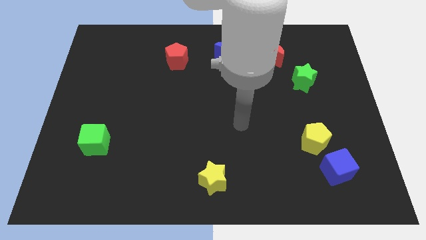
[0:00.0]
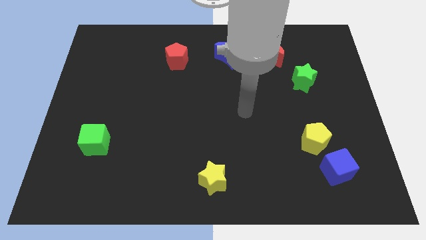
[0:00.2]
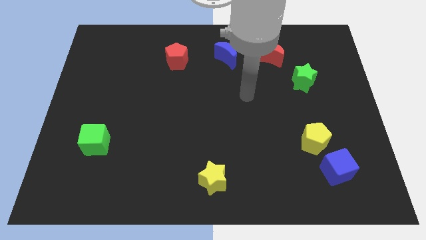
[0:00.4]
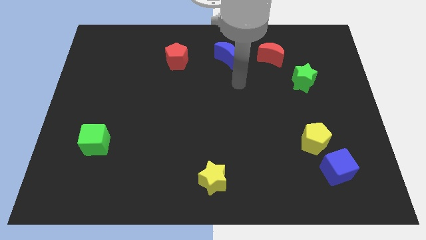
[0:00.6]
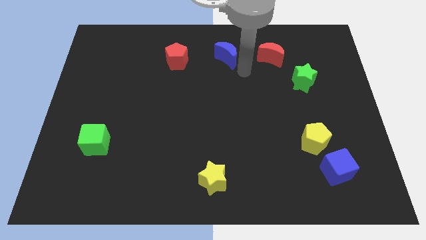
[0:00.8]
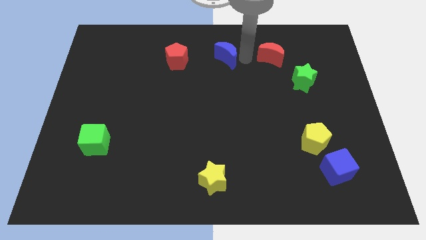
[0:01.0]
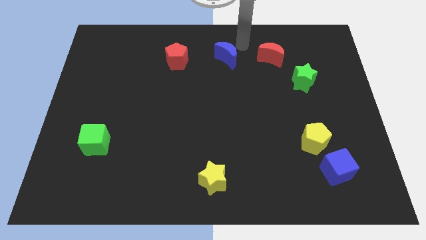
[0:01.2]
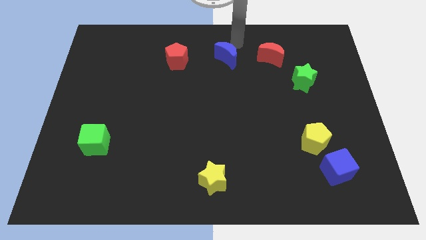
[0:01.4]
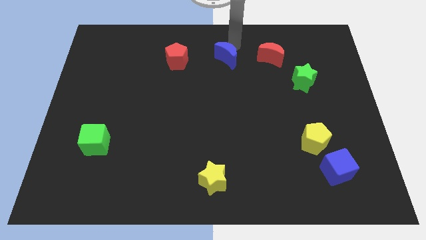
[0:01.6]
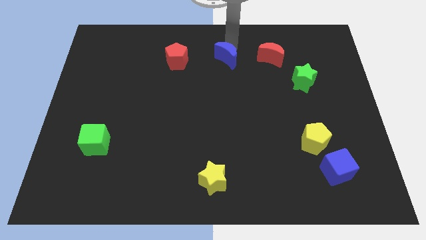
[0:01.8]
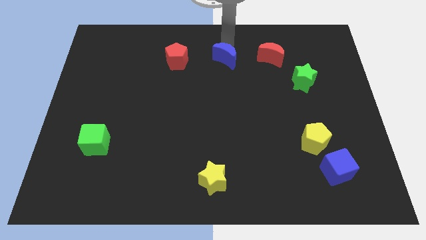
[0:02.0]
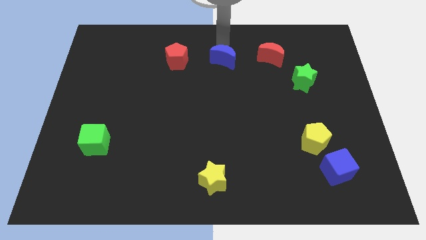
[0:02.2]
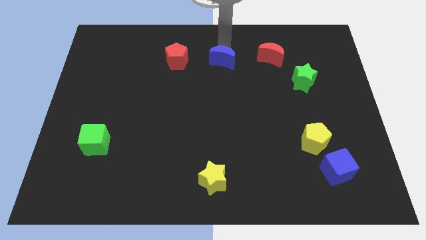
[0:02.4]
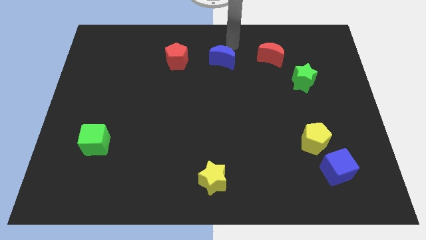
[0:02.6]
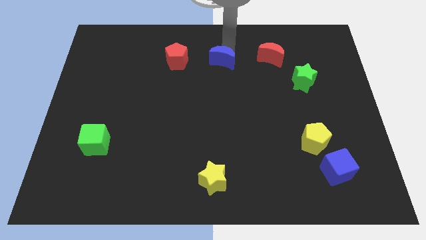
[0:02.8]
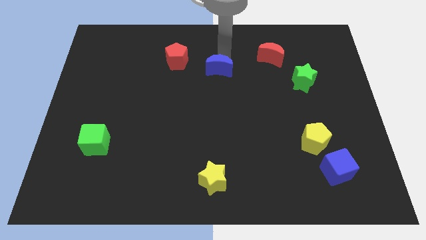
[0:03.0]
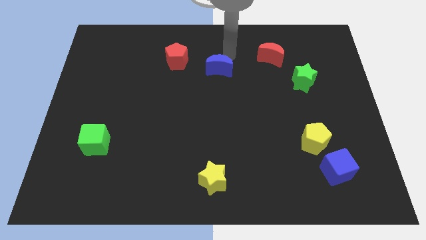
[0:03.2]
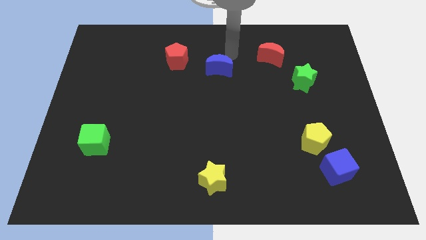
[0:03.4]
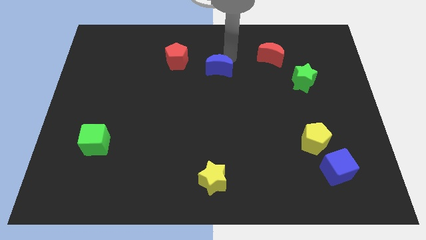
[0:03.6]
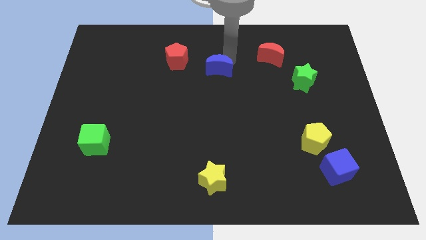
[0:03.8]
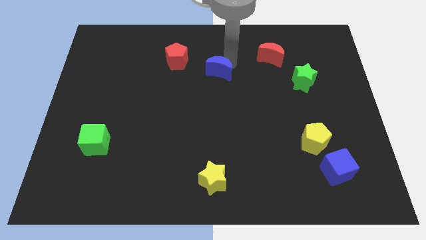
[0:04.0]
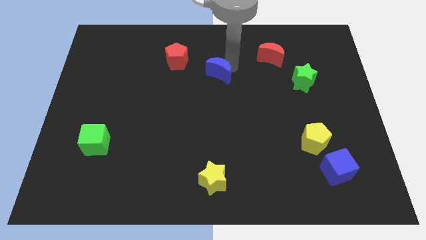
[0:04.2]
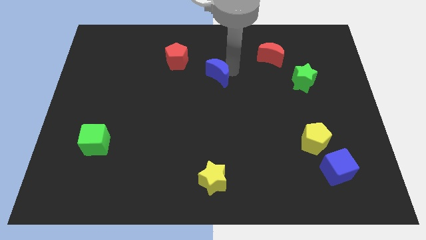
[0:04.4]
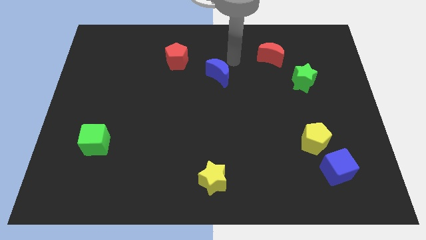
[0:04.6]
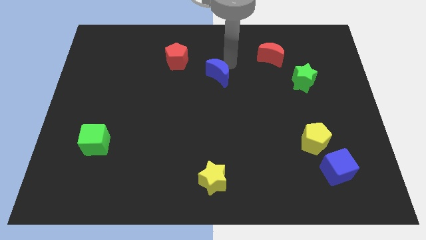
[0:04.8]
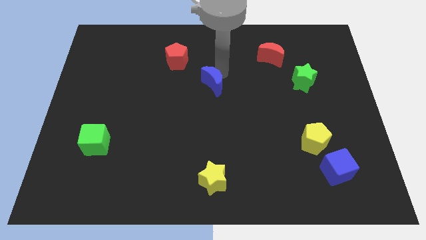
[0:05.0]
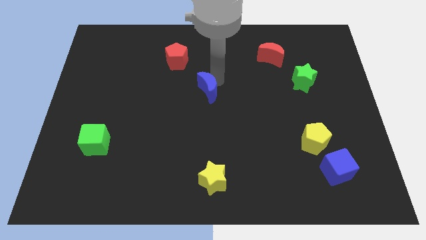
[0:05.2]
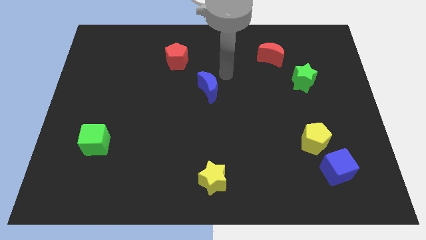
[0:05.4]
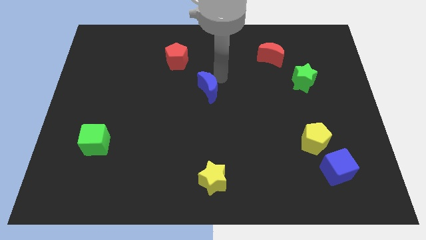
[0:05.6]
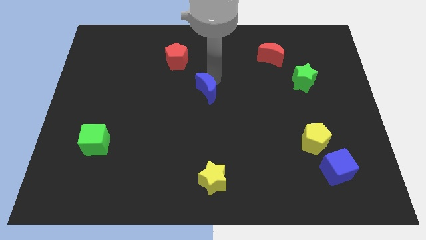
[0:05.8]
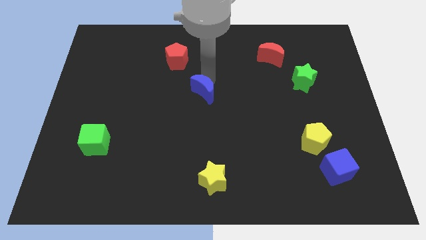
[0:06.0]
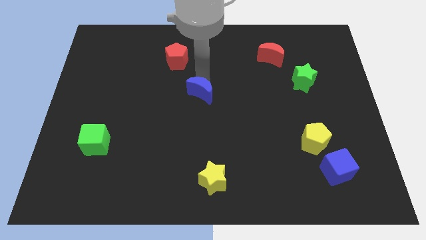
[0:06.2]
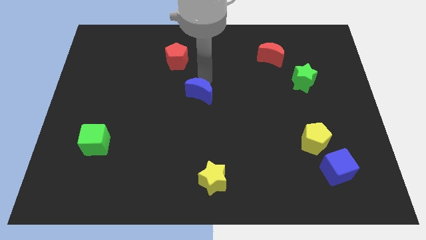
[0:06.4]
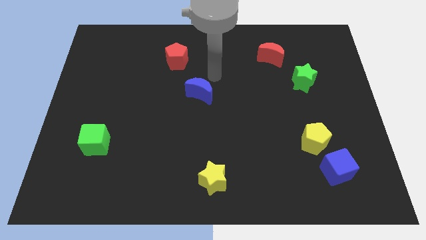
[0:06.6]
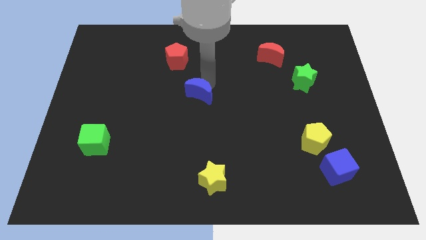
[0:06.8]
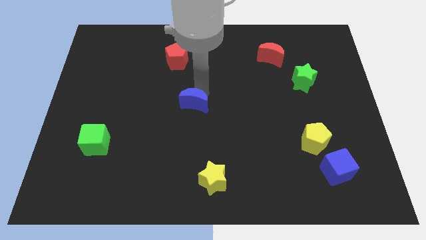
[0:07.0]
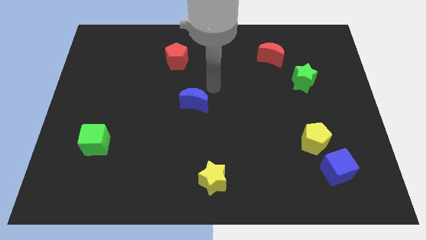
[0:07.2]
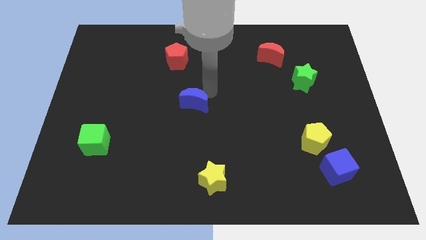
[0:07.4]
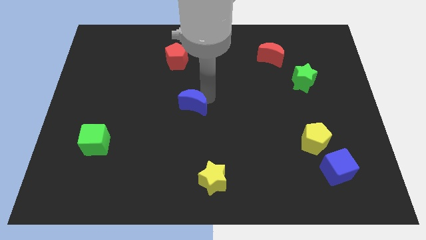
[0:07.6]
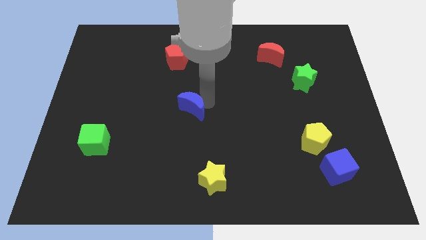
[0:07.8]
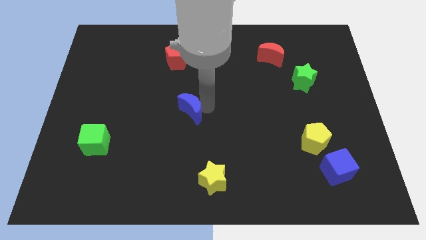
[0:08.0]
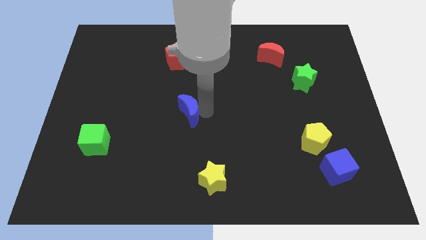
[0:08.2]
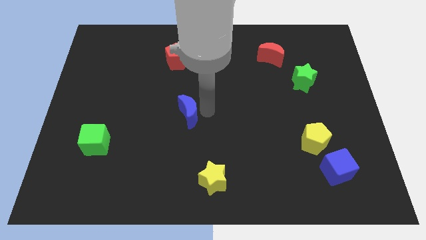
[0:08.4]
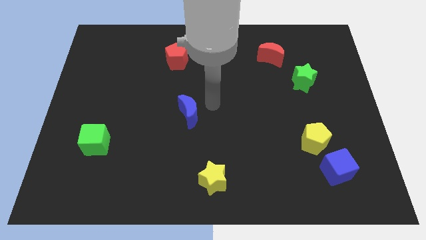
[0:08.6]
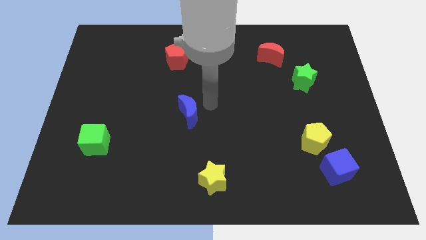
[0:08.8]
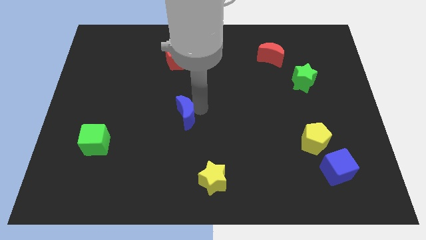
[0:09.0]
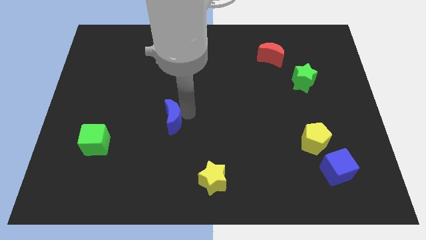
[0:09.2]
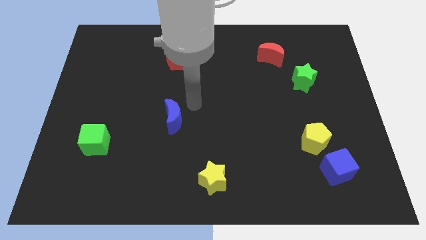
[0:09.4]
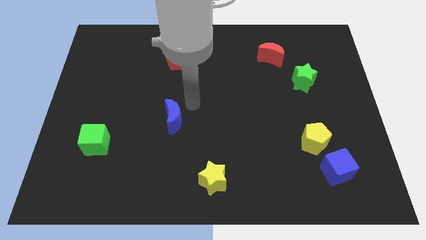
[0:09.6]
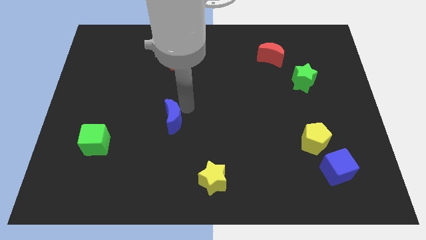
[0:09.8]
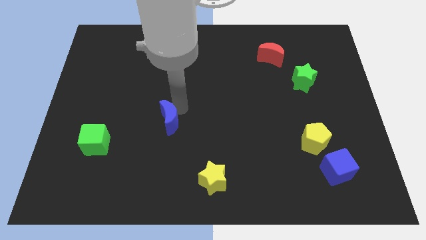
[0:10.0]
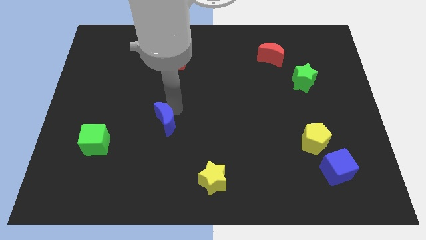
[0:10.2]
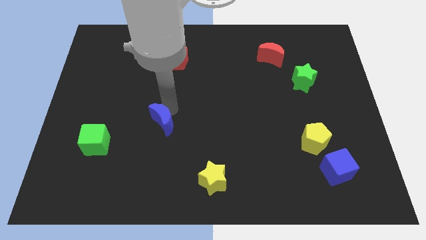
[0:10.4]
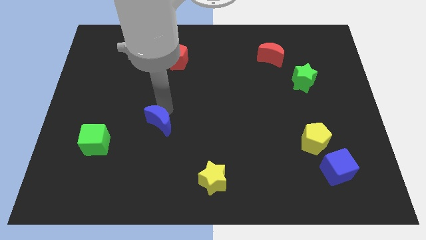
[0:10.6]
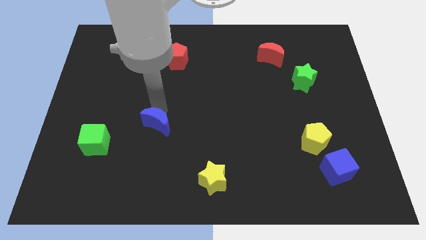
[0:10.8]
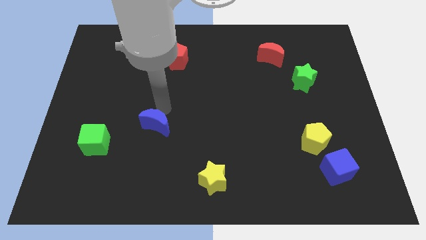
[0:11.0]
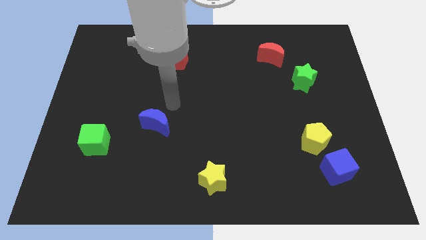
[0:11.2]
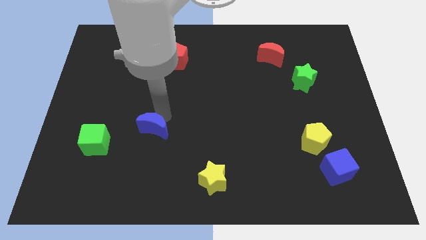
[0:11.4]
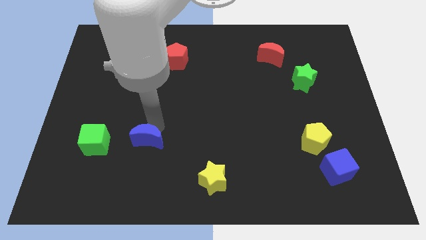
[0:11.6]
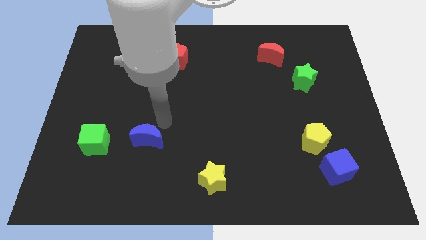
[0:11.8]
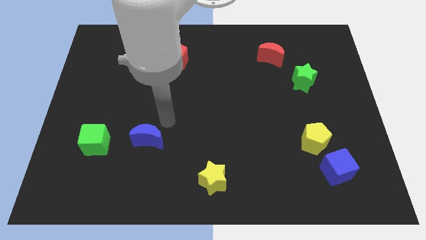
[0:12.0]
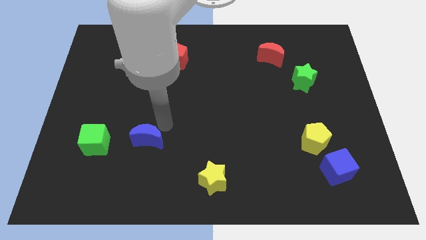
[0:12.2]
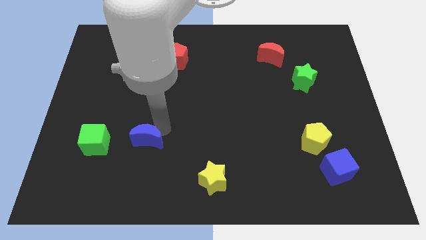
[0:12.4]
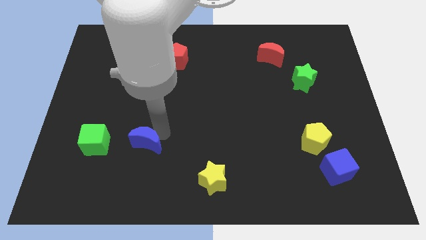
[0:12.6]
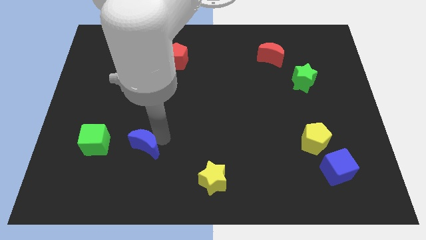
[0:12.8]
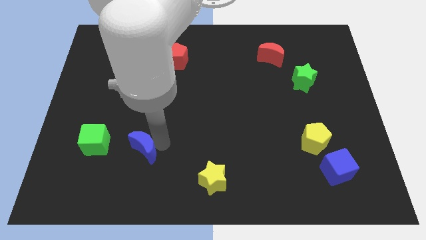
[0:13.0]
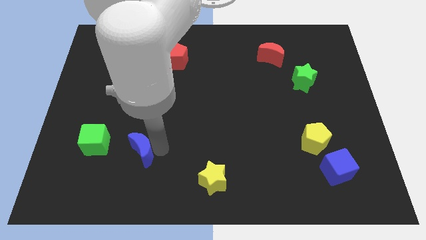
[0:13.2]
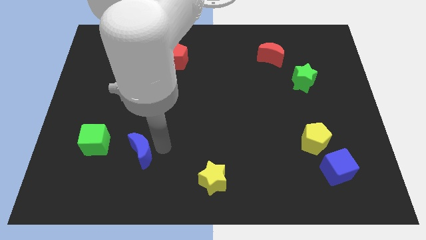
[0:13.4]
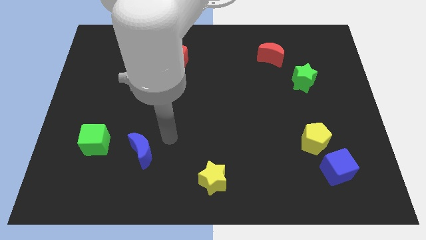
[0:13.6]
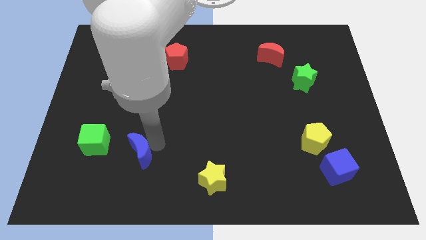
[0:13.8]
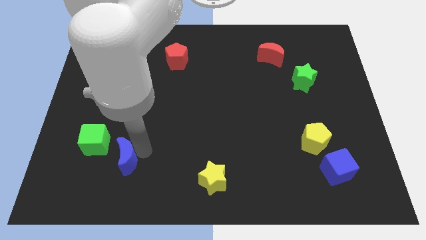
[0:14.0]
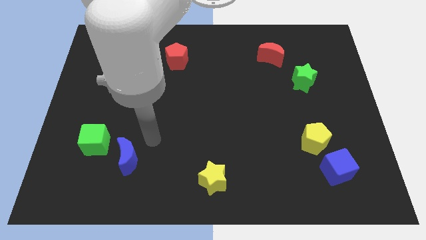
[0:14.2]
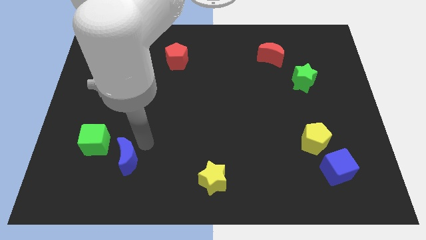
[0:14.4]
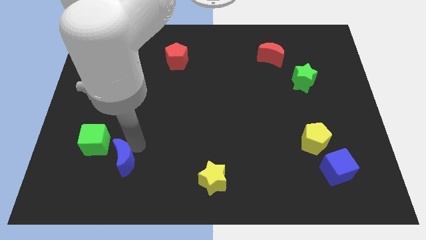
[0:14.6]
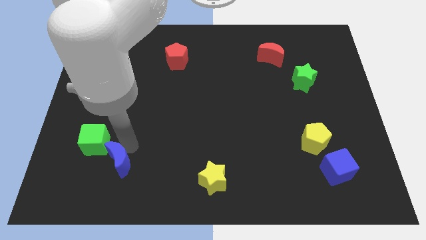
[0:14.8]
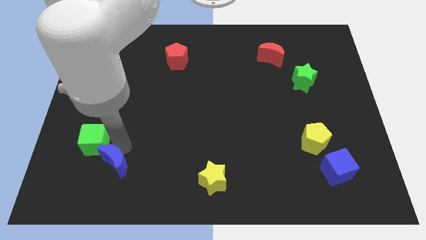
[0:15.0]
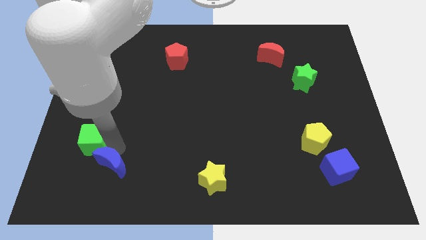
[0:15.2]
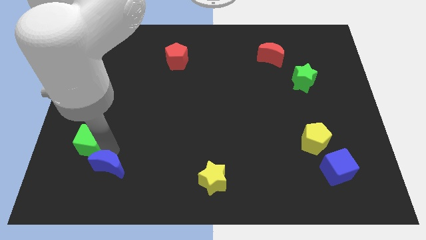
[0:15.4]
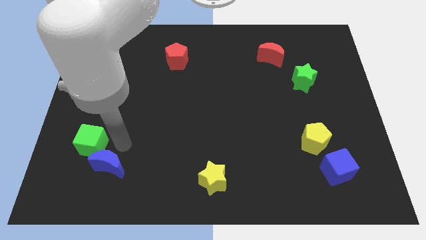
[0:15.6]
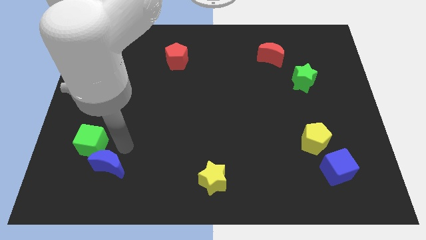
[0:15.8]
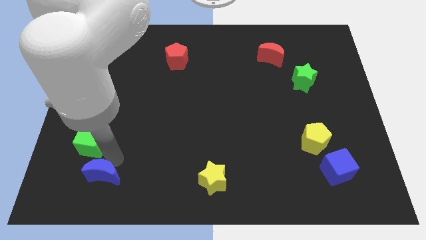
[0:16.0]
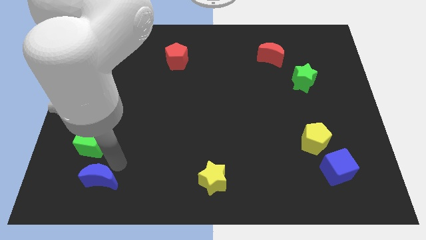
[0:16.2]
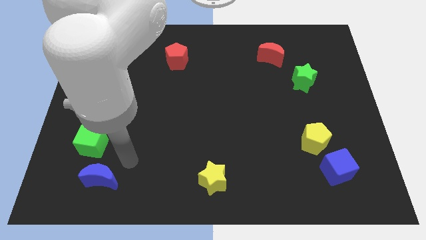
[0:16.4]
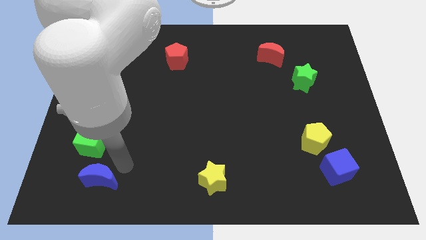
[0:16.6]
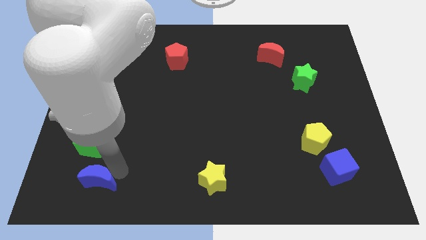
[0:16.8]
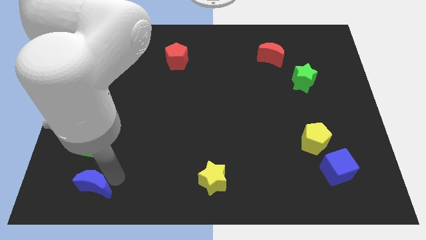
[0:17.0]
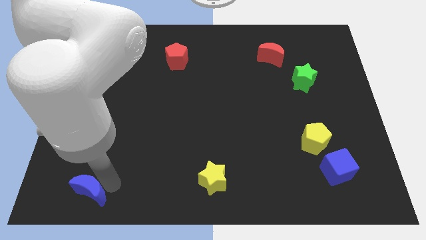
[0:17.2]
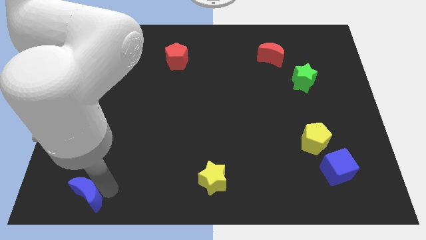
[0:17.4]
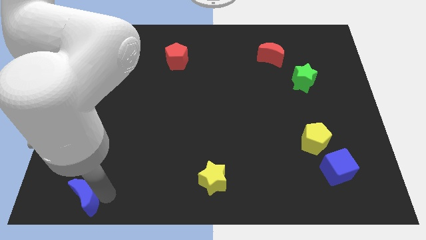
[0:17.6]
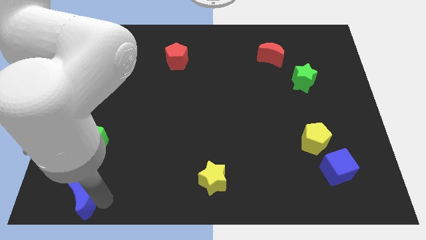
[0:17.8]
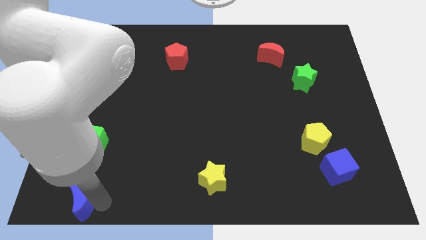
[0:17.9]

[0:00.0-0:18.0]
move the blue moon to the bottom left of the board
